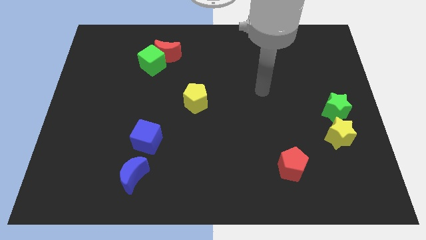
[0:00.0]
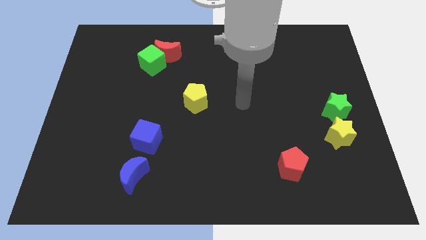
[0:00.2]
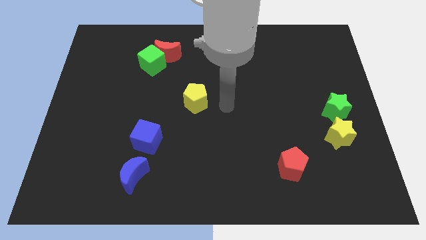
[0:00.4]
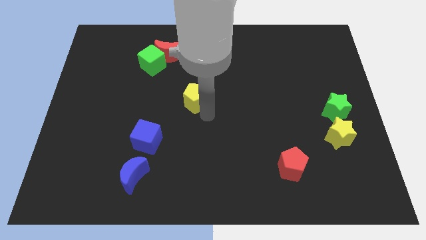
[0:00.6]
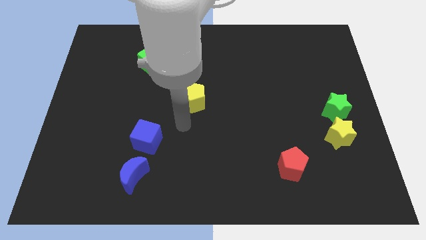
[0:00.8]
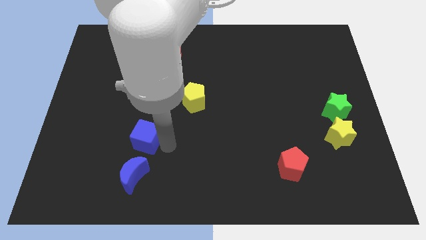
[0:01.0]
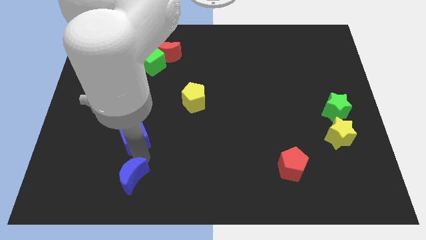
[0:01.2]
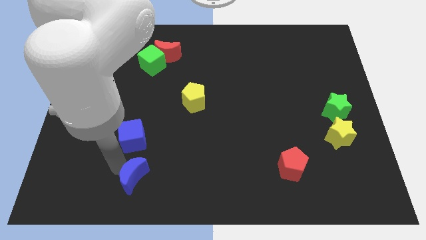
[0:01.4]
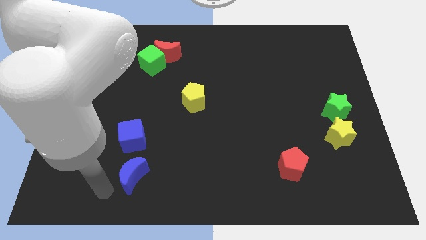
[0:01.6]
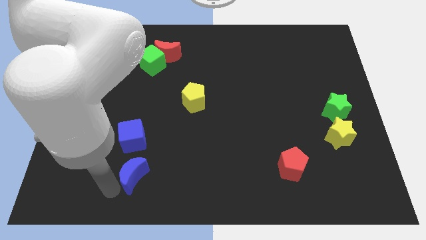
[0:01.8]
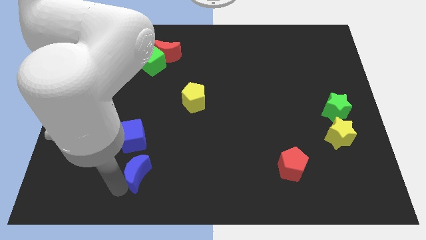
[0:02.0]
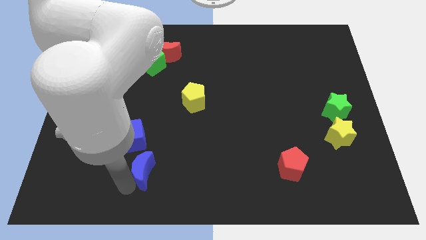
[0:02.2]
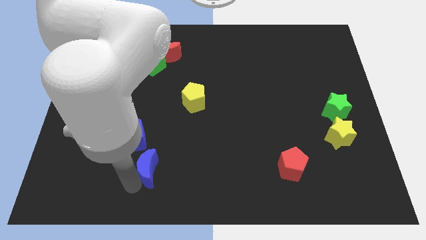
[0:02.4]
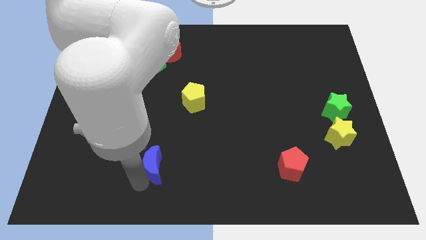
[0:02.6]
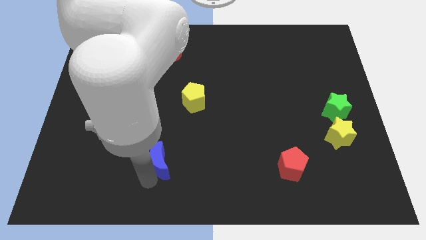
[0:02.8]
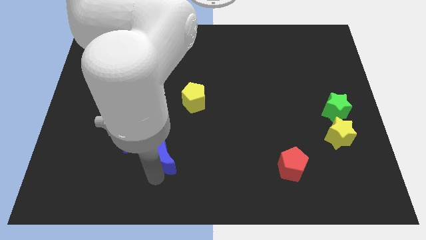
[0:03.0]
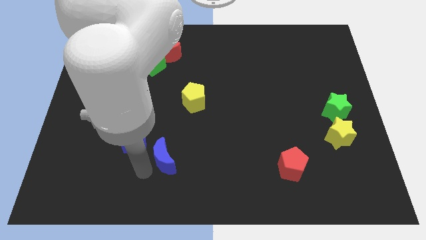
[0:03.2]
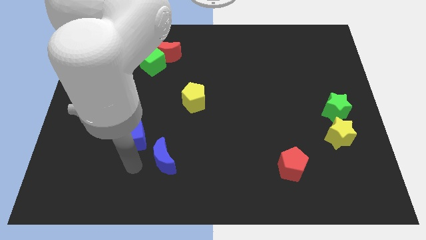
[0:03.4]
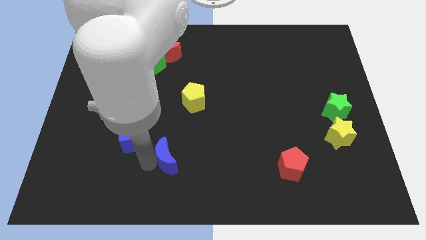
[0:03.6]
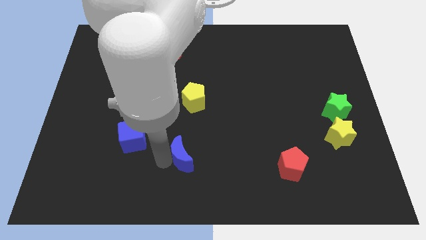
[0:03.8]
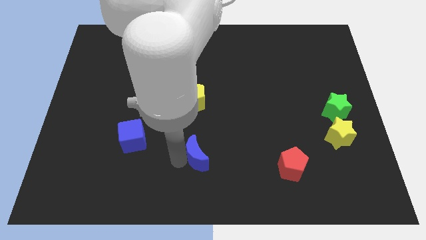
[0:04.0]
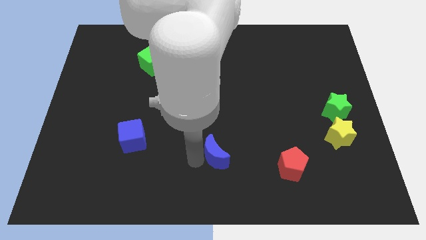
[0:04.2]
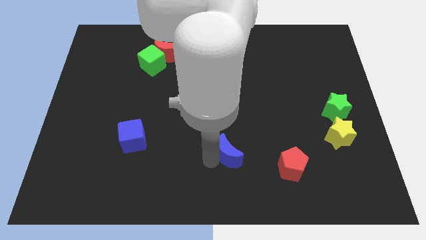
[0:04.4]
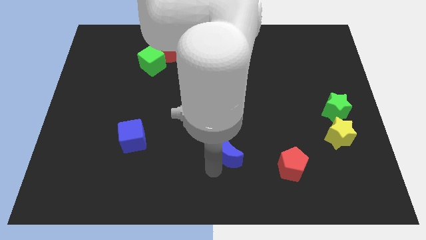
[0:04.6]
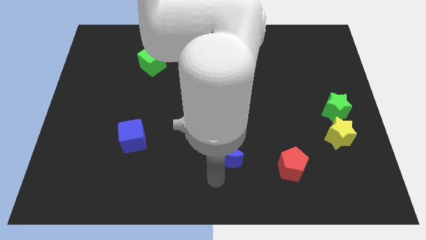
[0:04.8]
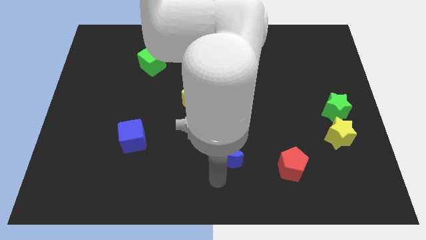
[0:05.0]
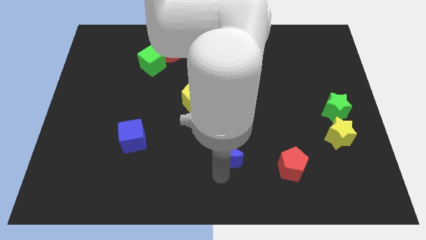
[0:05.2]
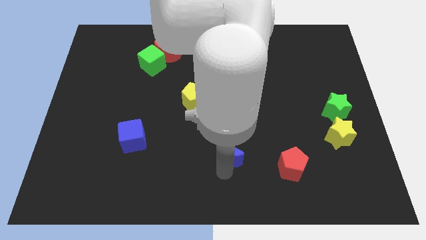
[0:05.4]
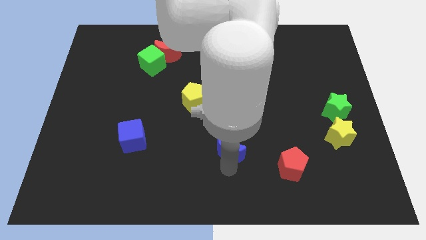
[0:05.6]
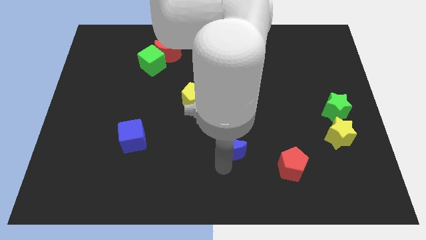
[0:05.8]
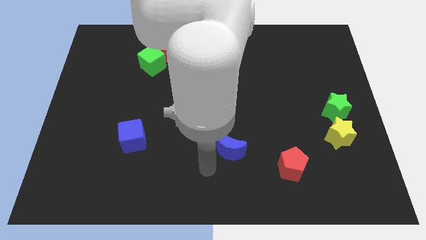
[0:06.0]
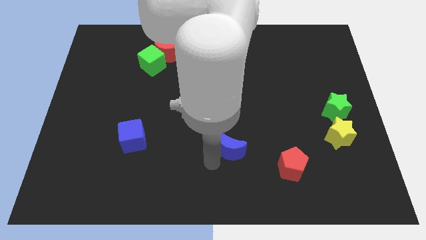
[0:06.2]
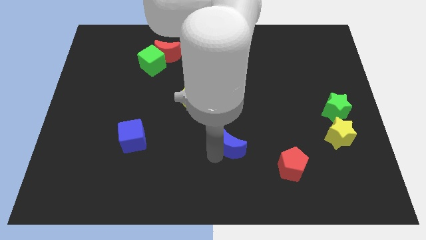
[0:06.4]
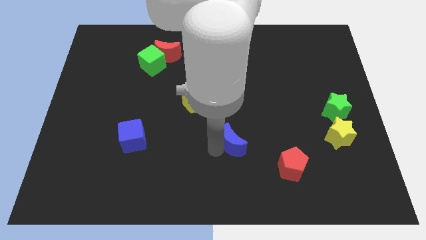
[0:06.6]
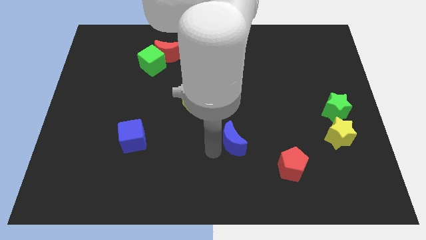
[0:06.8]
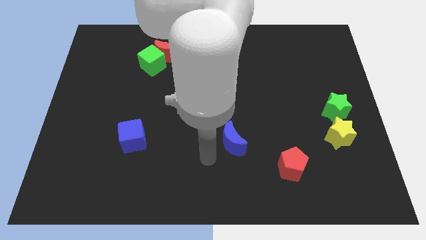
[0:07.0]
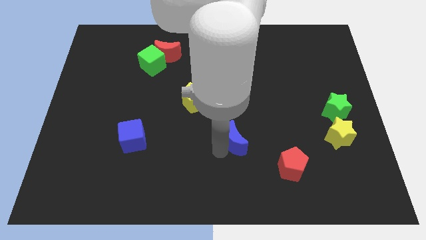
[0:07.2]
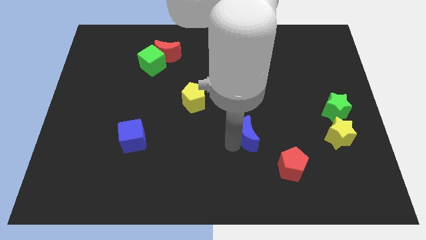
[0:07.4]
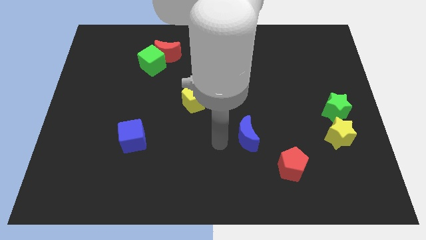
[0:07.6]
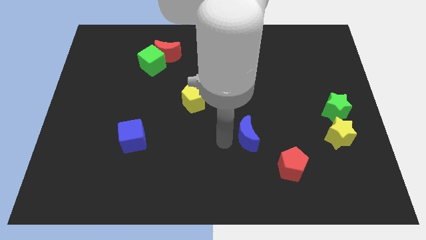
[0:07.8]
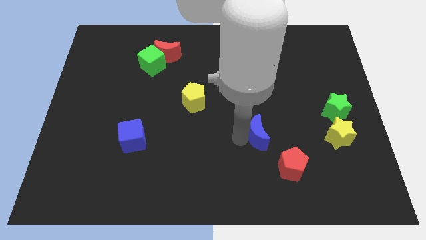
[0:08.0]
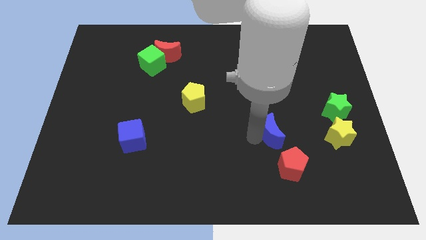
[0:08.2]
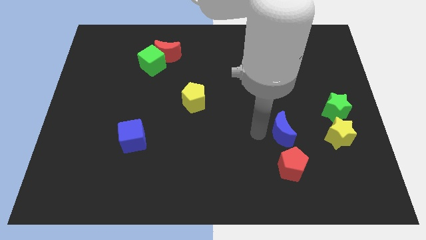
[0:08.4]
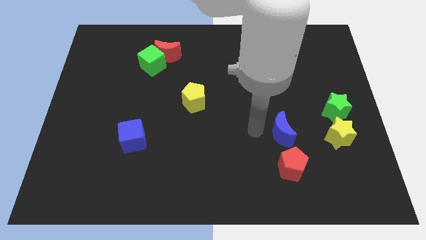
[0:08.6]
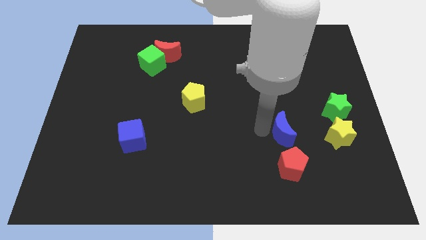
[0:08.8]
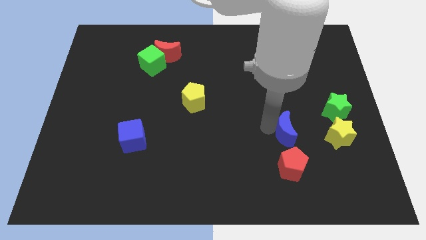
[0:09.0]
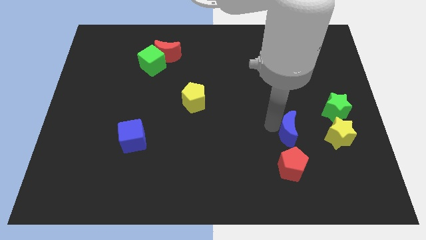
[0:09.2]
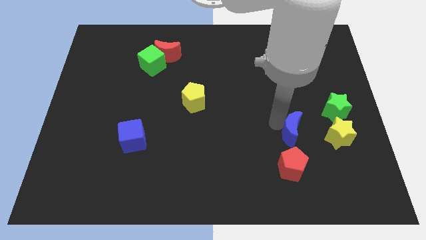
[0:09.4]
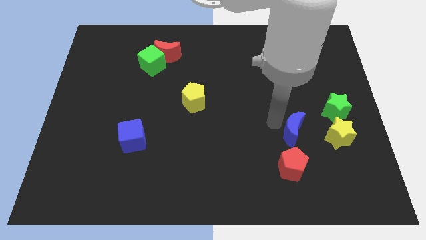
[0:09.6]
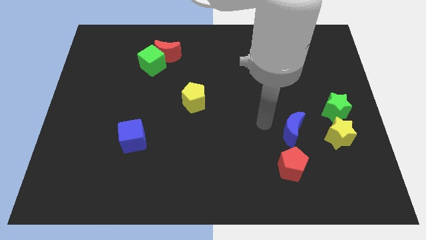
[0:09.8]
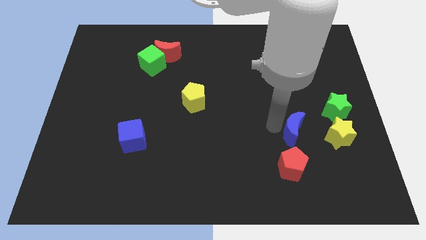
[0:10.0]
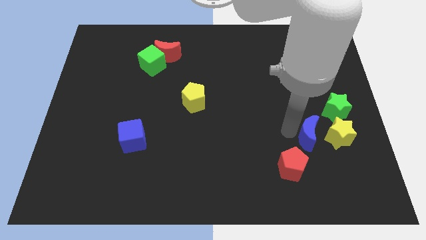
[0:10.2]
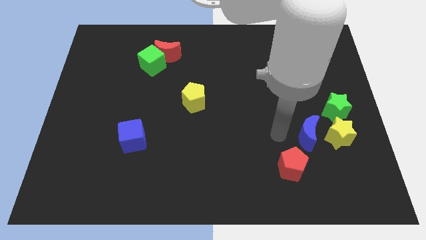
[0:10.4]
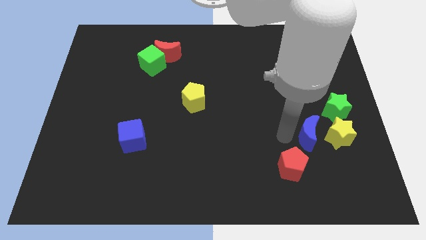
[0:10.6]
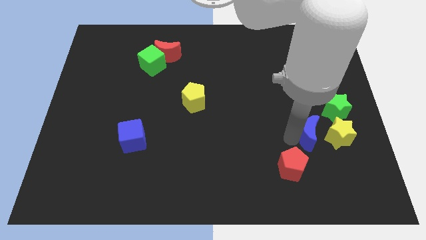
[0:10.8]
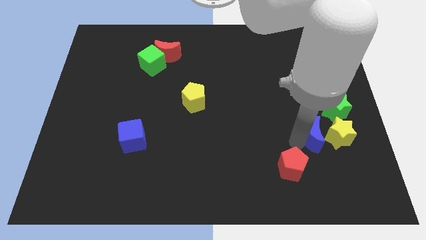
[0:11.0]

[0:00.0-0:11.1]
slide the blue moon towards the yellow star
